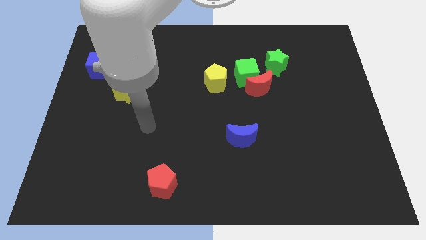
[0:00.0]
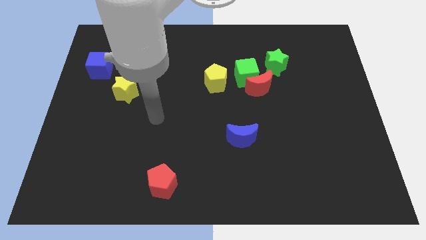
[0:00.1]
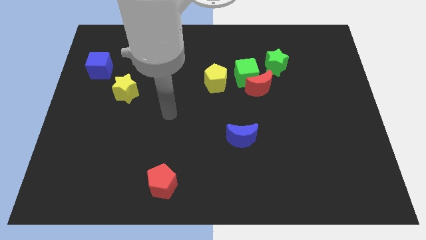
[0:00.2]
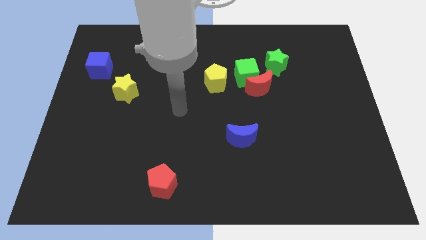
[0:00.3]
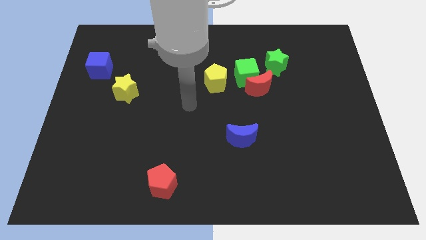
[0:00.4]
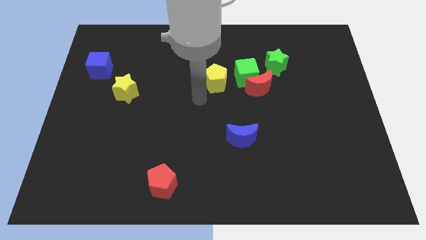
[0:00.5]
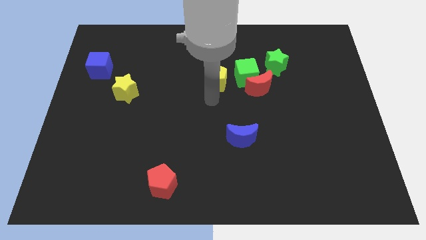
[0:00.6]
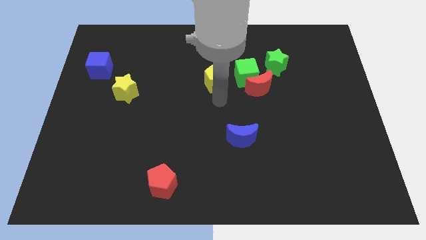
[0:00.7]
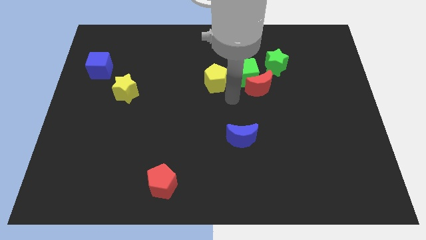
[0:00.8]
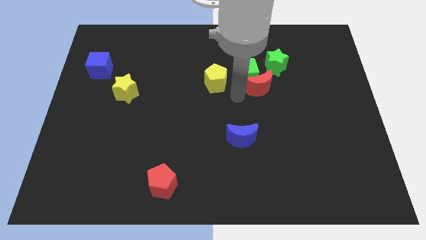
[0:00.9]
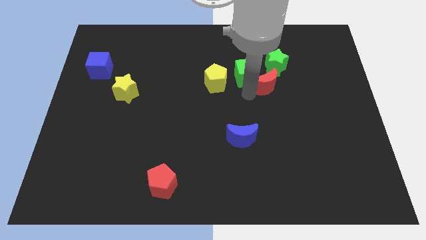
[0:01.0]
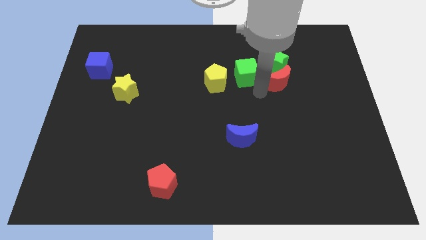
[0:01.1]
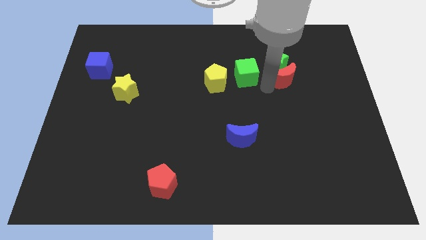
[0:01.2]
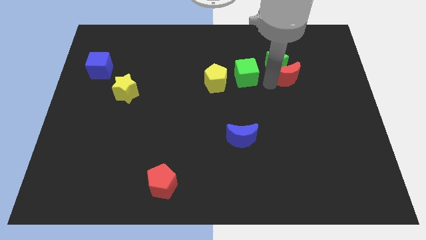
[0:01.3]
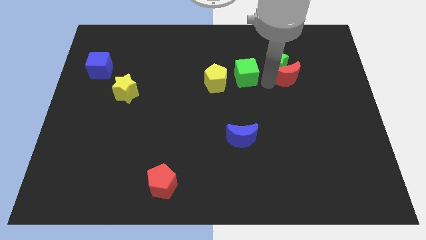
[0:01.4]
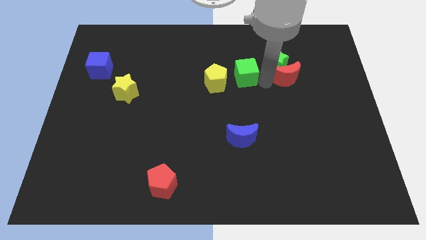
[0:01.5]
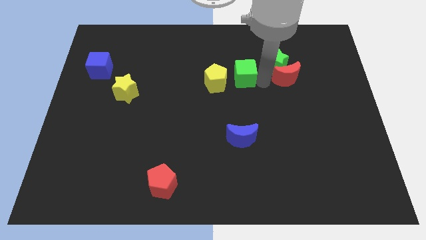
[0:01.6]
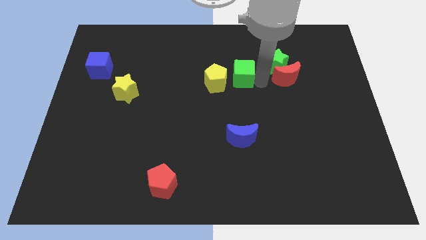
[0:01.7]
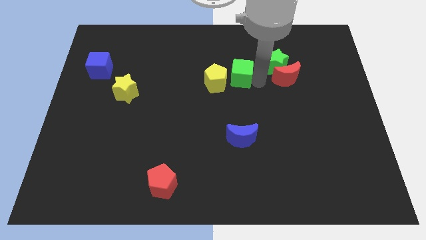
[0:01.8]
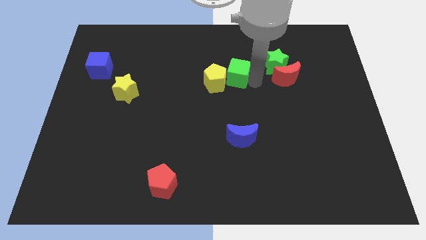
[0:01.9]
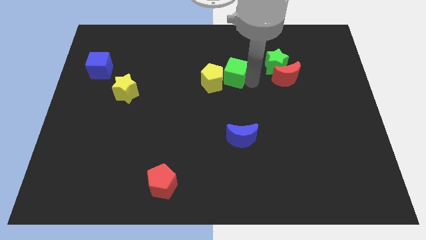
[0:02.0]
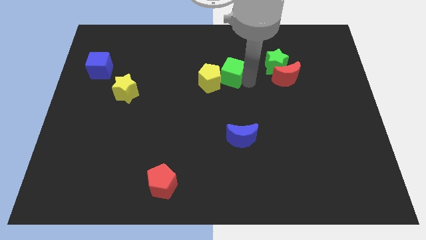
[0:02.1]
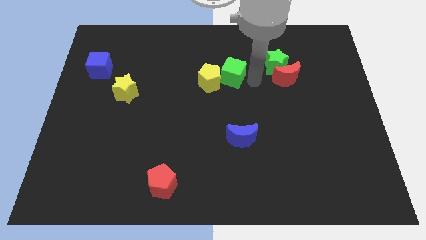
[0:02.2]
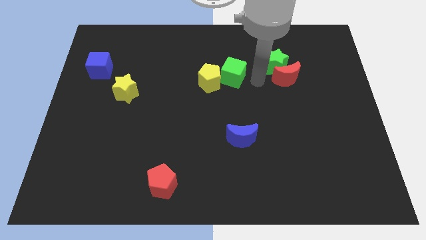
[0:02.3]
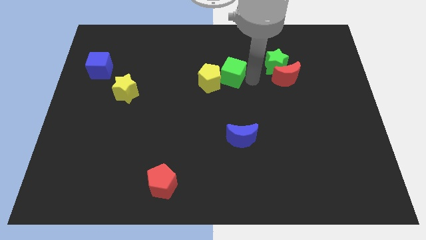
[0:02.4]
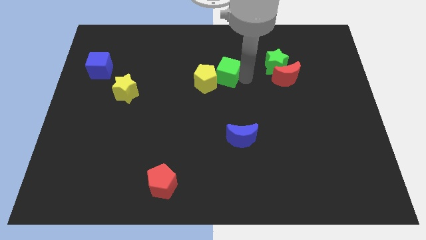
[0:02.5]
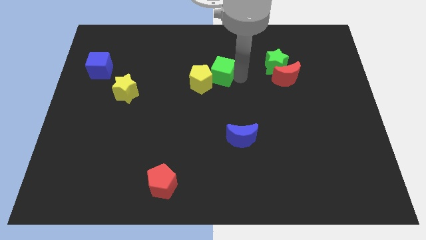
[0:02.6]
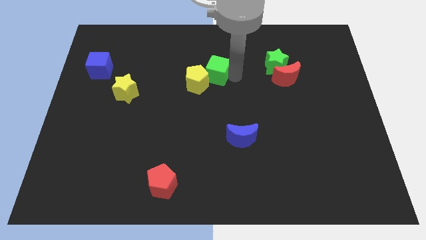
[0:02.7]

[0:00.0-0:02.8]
push the green cube slightly to the left

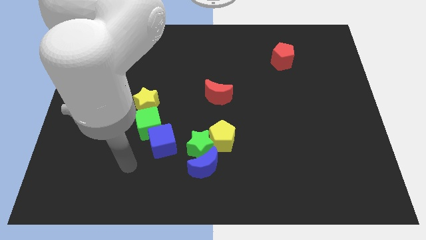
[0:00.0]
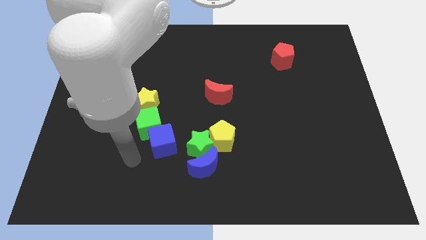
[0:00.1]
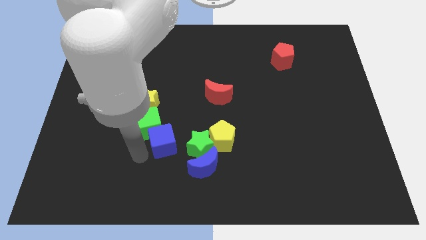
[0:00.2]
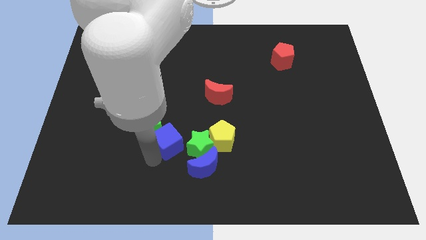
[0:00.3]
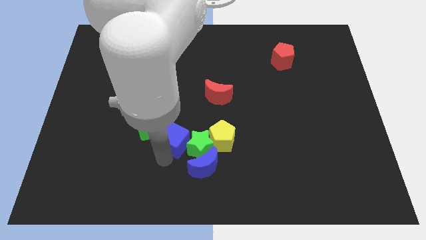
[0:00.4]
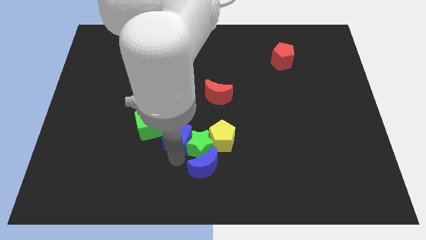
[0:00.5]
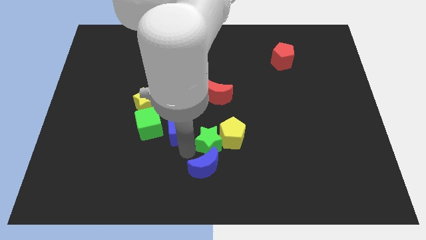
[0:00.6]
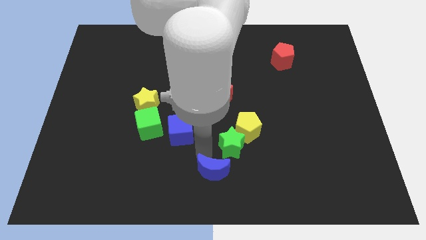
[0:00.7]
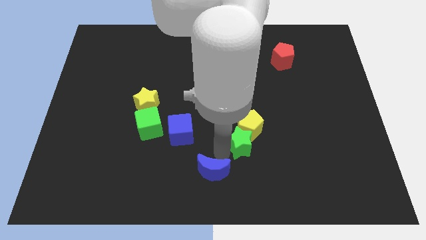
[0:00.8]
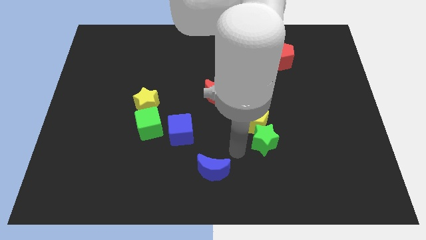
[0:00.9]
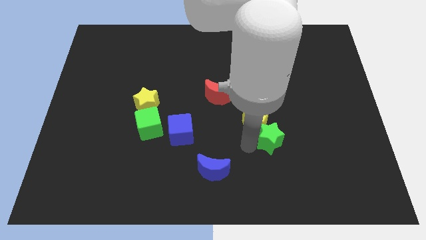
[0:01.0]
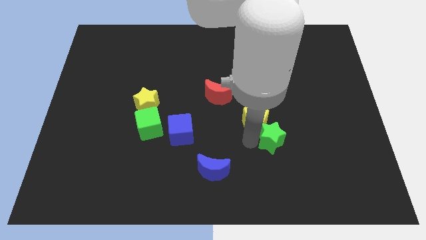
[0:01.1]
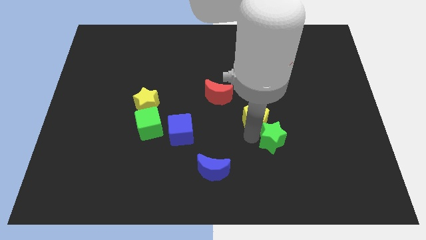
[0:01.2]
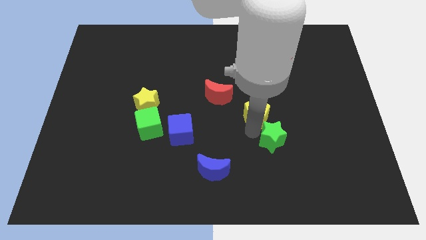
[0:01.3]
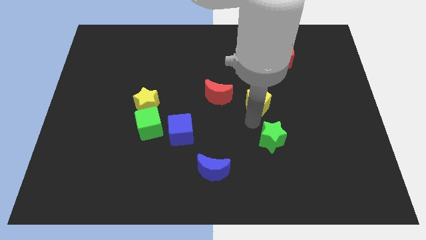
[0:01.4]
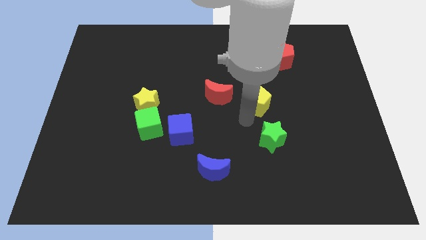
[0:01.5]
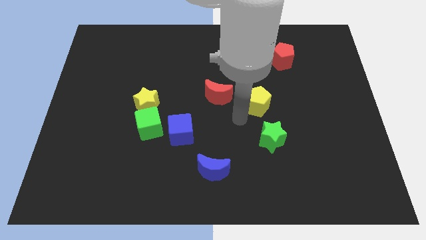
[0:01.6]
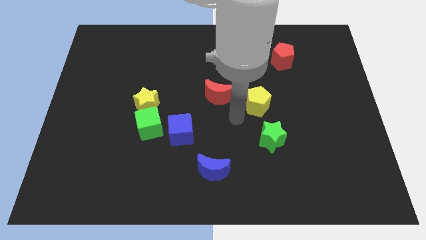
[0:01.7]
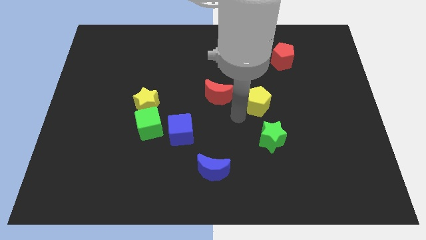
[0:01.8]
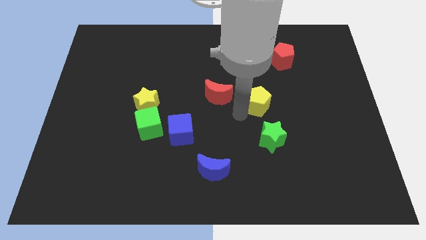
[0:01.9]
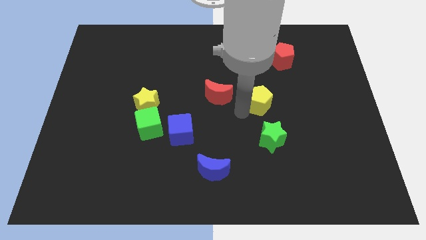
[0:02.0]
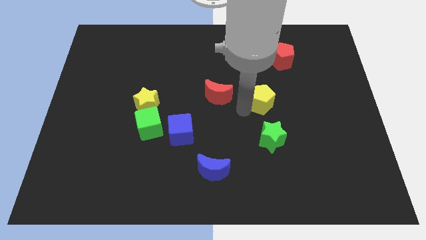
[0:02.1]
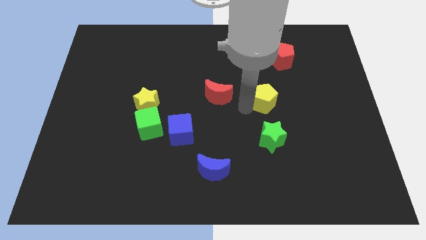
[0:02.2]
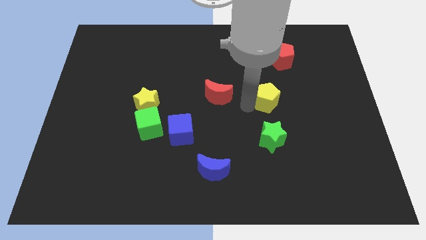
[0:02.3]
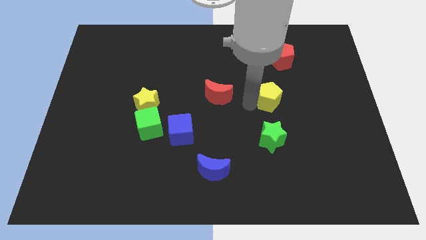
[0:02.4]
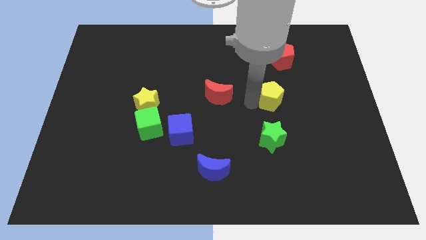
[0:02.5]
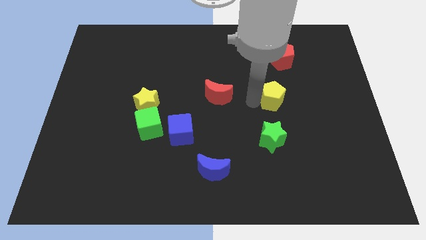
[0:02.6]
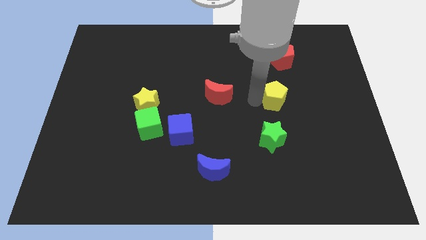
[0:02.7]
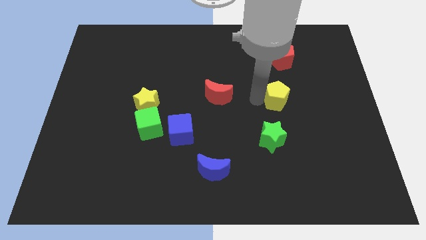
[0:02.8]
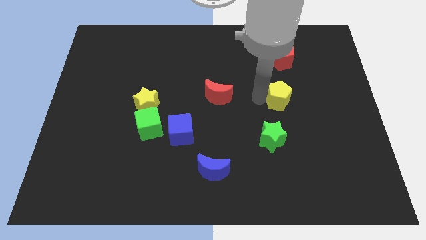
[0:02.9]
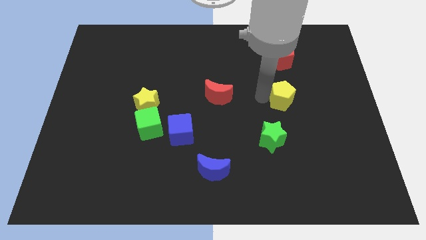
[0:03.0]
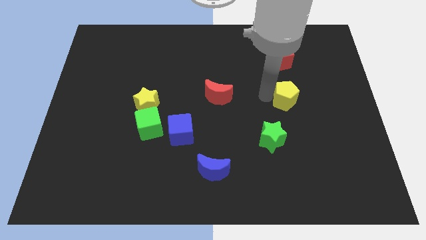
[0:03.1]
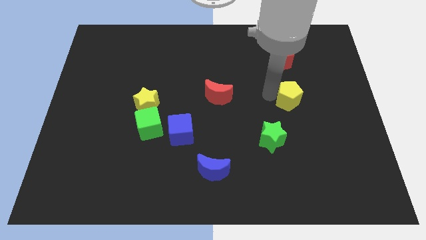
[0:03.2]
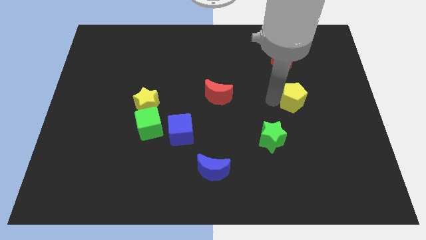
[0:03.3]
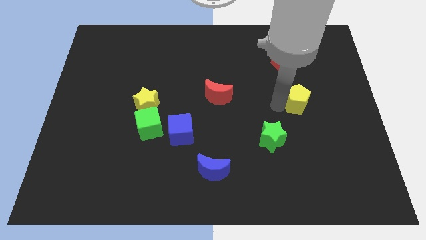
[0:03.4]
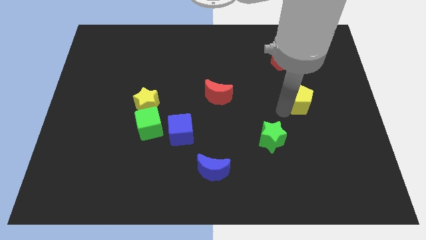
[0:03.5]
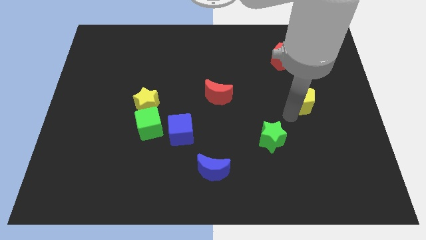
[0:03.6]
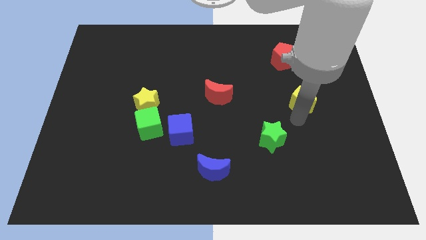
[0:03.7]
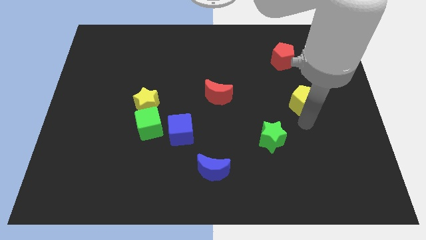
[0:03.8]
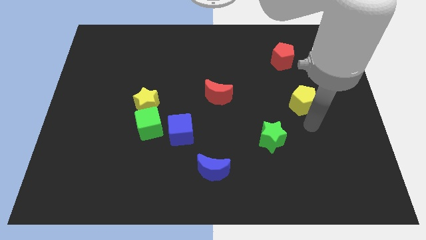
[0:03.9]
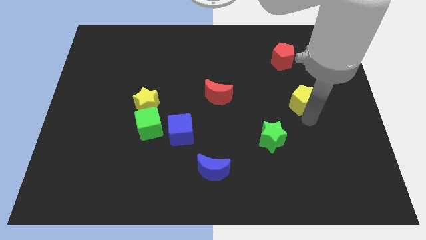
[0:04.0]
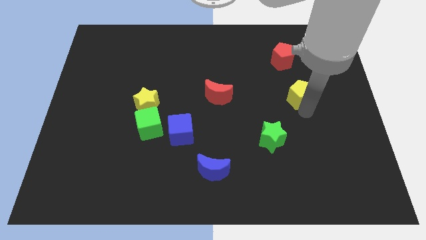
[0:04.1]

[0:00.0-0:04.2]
push the yellow pentagon upwards and right

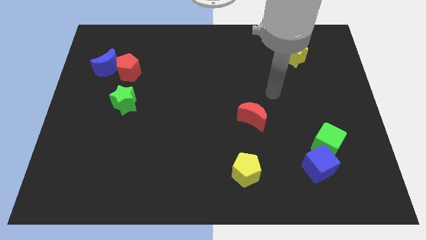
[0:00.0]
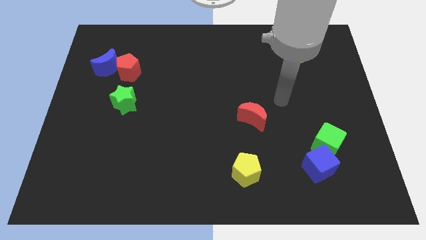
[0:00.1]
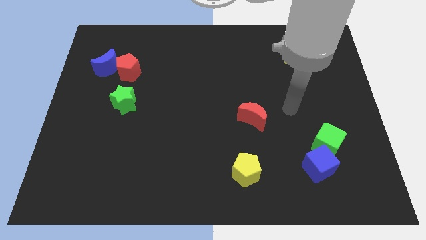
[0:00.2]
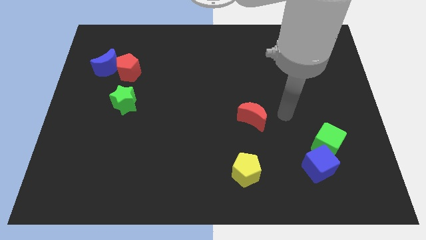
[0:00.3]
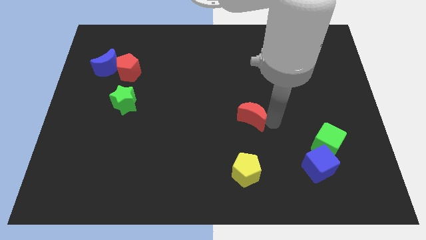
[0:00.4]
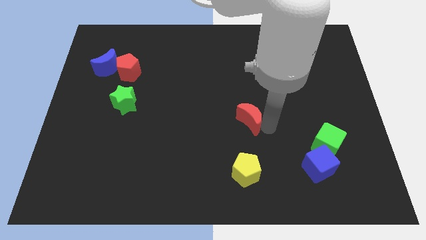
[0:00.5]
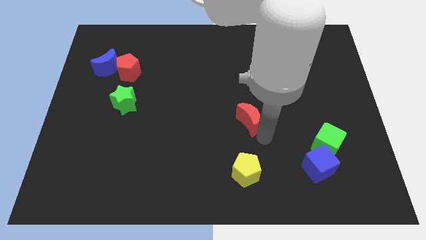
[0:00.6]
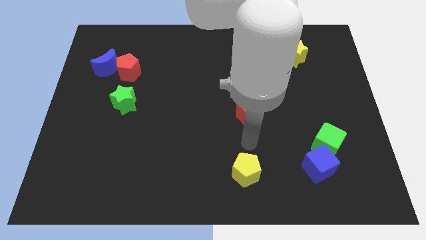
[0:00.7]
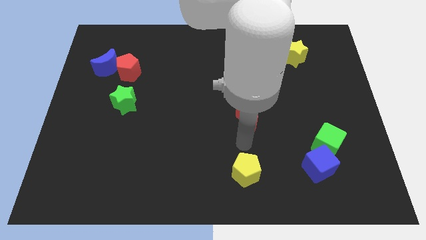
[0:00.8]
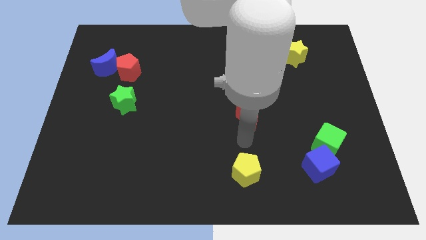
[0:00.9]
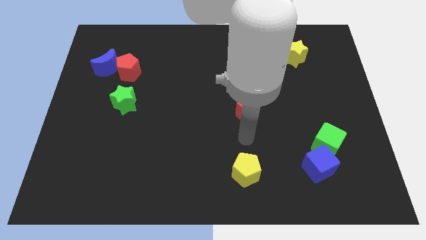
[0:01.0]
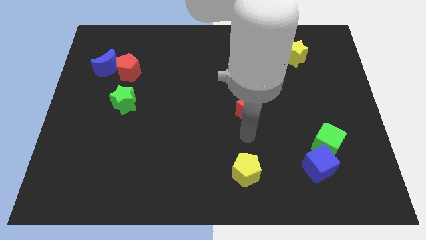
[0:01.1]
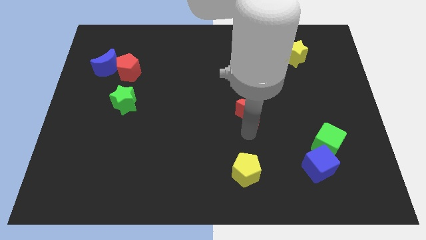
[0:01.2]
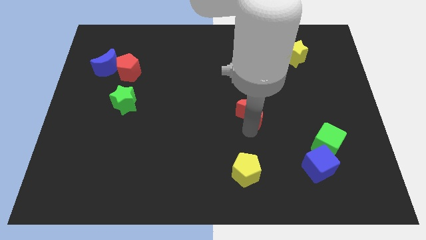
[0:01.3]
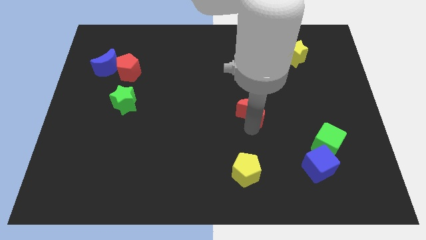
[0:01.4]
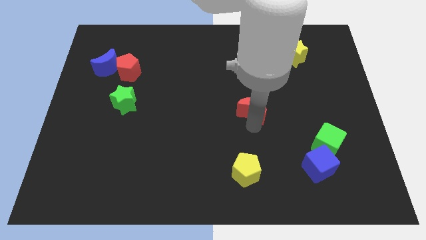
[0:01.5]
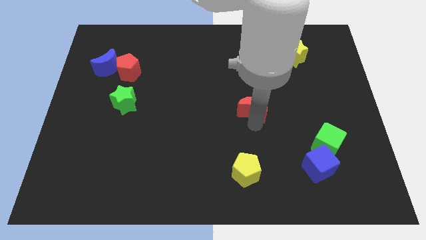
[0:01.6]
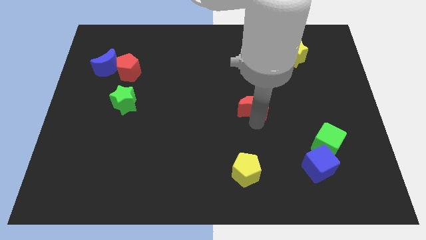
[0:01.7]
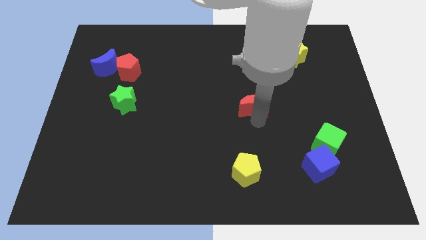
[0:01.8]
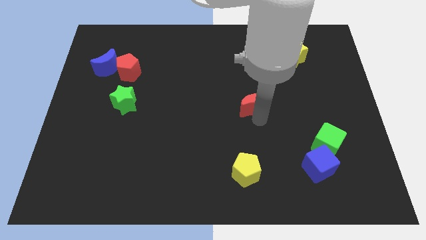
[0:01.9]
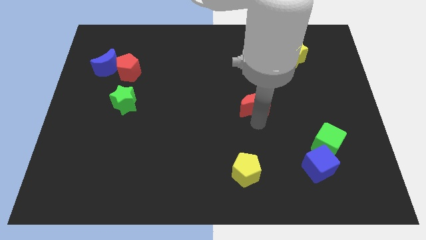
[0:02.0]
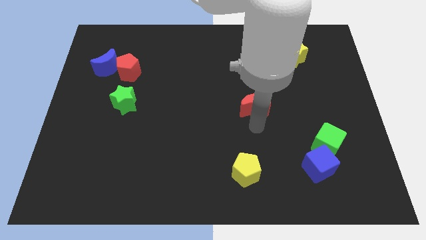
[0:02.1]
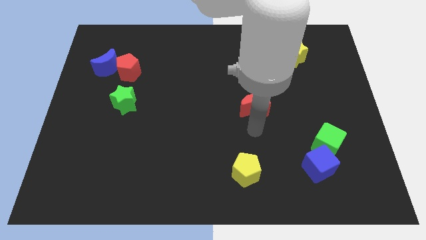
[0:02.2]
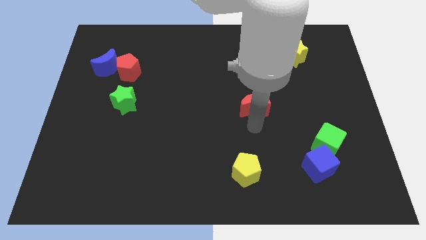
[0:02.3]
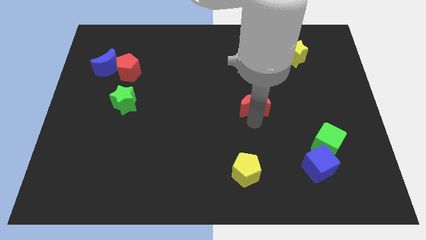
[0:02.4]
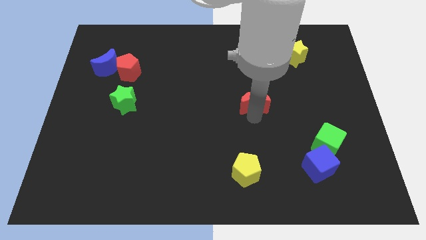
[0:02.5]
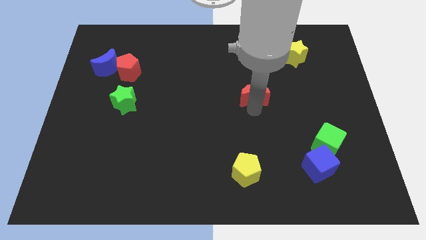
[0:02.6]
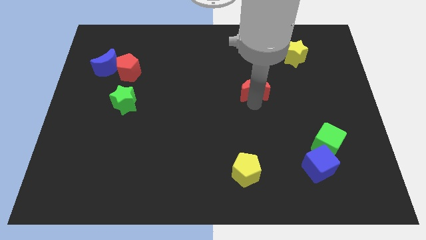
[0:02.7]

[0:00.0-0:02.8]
slide the red moon somewhat upwards
